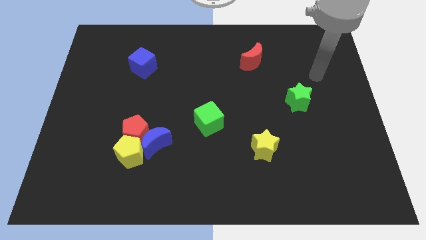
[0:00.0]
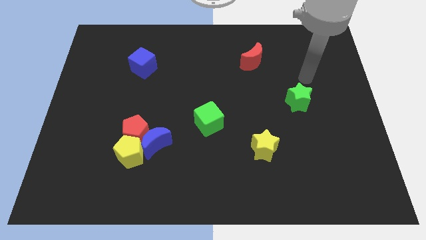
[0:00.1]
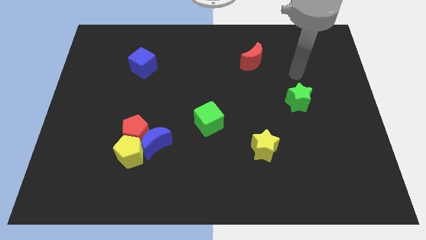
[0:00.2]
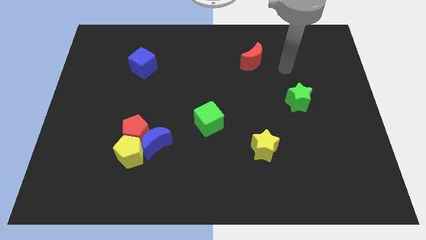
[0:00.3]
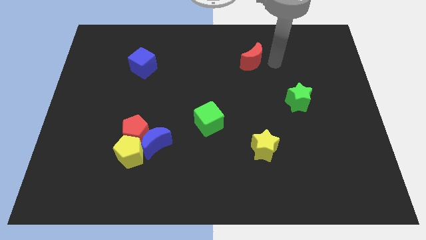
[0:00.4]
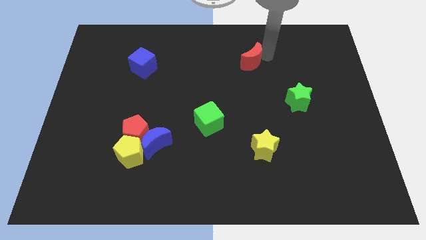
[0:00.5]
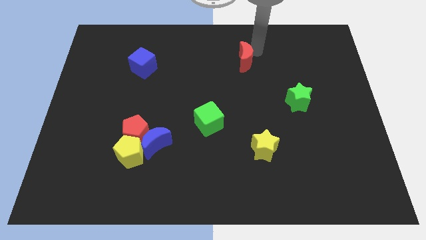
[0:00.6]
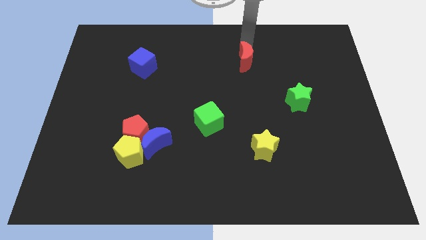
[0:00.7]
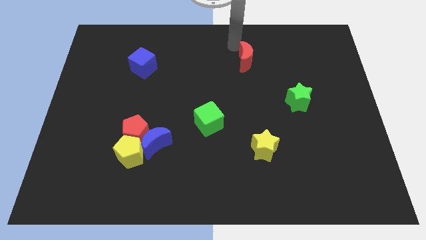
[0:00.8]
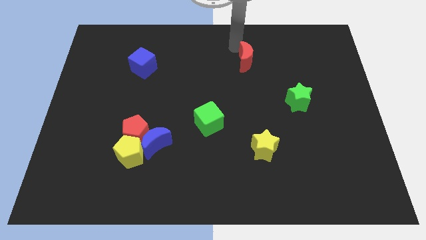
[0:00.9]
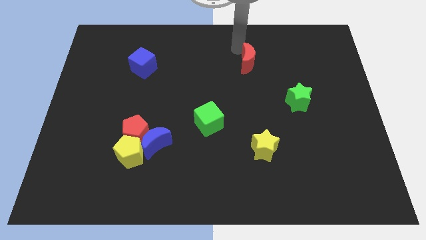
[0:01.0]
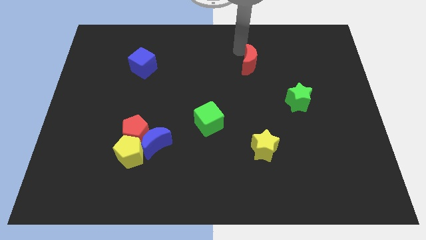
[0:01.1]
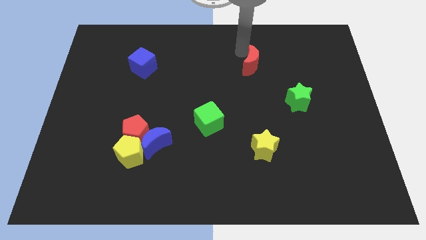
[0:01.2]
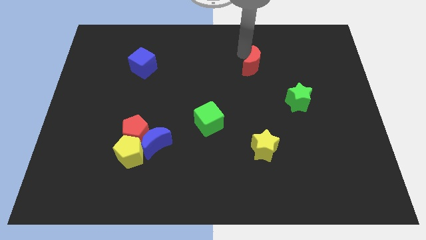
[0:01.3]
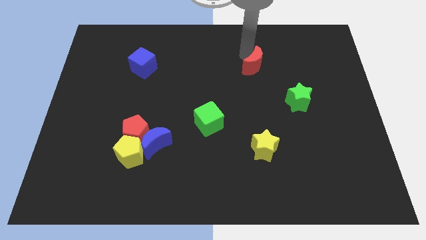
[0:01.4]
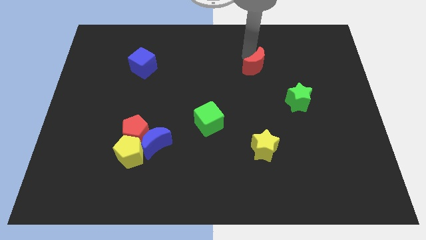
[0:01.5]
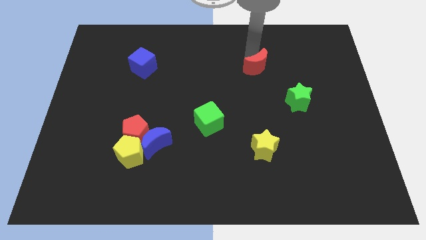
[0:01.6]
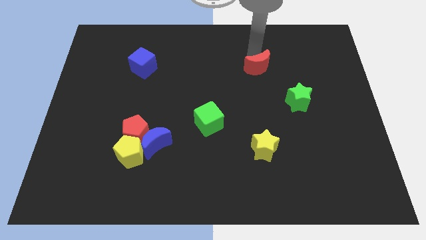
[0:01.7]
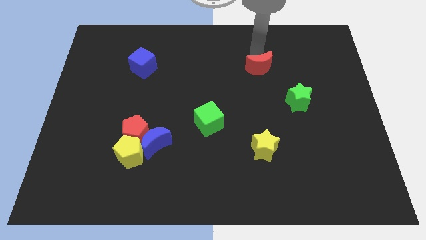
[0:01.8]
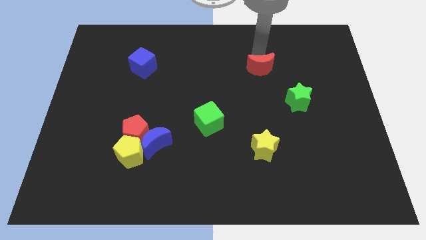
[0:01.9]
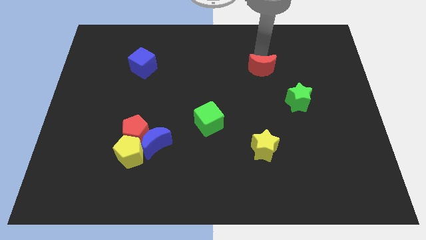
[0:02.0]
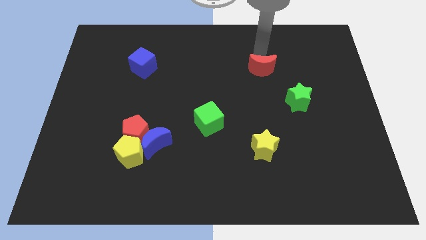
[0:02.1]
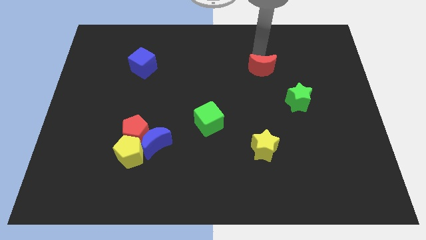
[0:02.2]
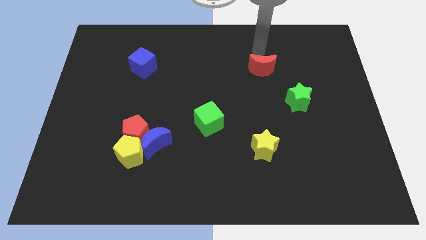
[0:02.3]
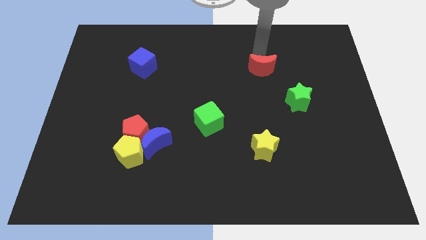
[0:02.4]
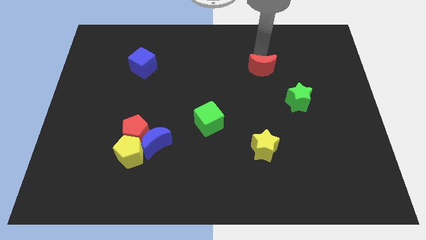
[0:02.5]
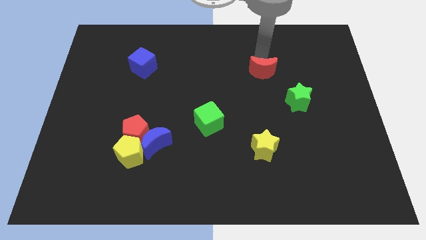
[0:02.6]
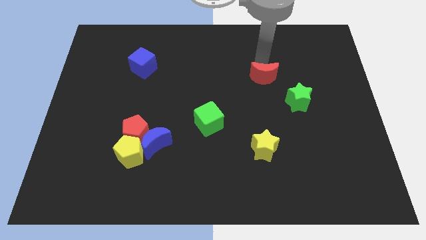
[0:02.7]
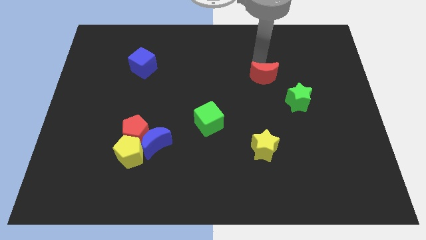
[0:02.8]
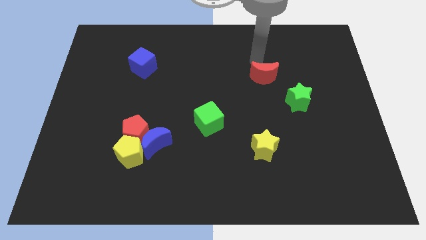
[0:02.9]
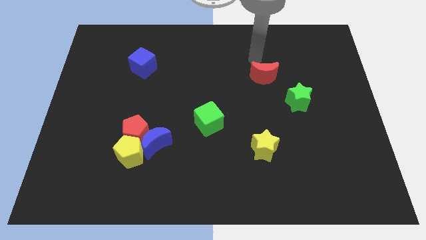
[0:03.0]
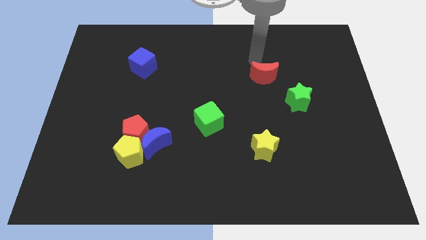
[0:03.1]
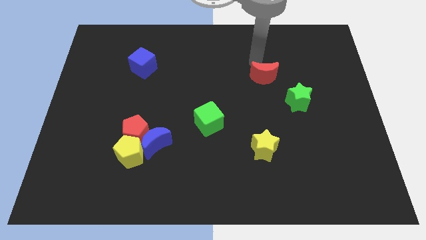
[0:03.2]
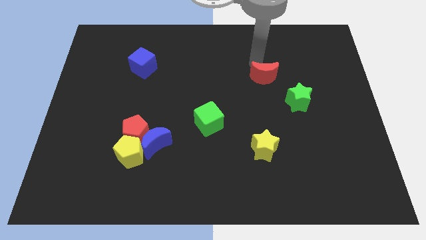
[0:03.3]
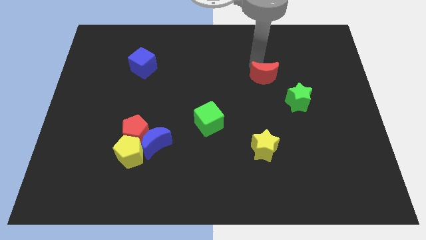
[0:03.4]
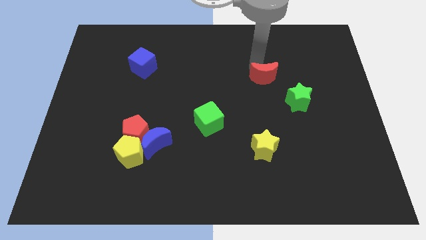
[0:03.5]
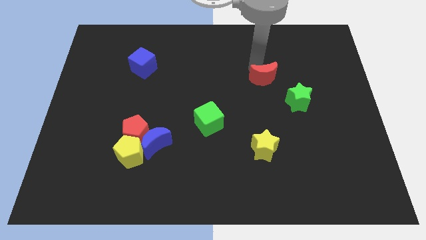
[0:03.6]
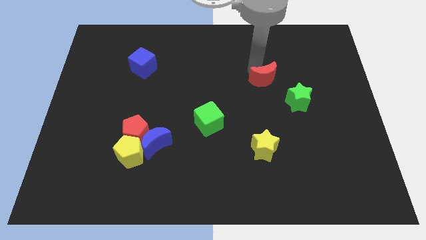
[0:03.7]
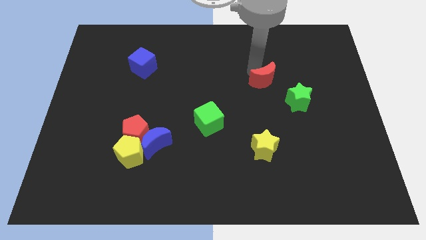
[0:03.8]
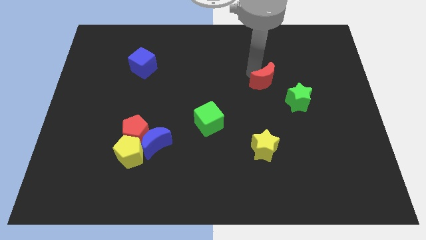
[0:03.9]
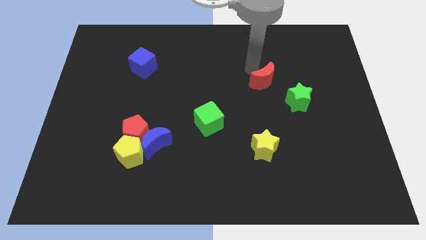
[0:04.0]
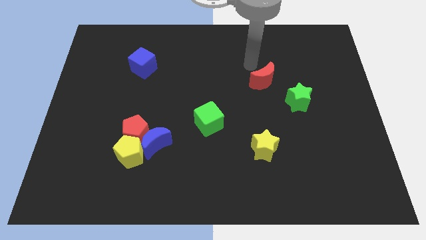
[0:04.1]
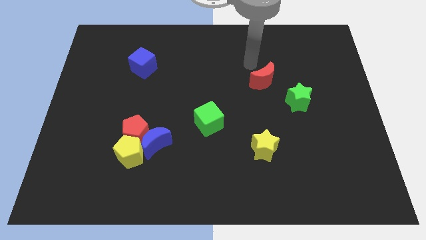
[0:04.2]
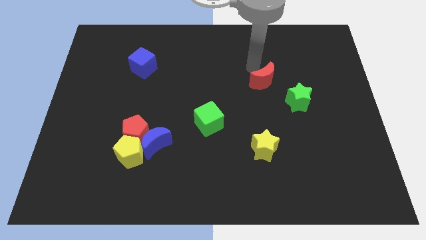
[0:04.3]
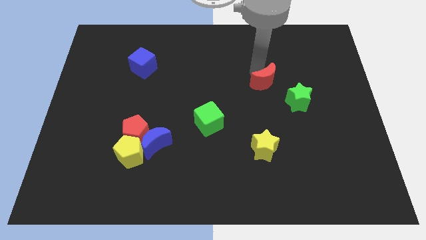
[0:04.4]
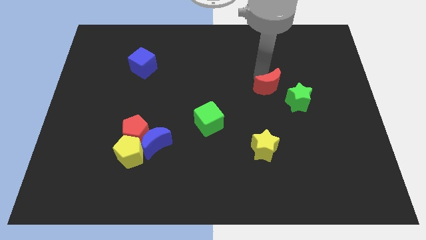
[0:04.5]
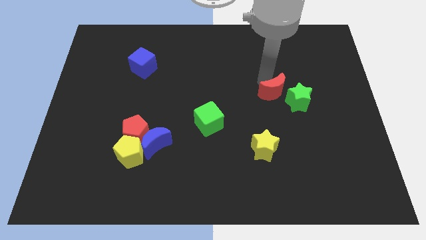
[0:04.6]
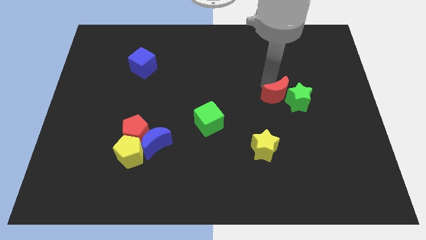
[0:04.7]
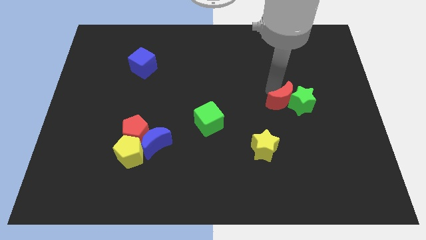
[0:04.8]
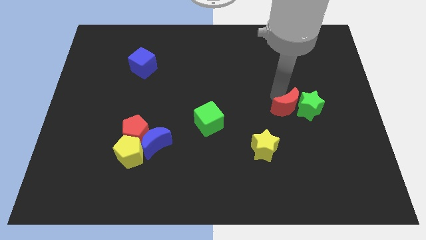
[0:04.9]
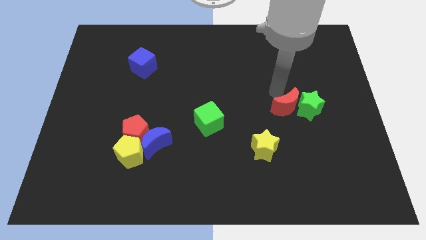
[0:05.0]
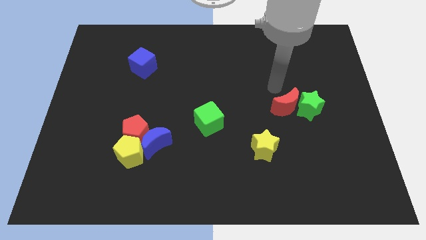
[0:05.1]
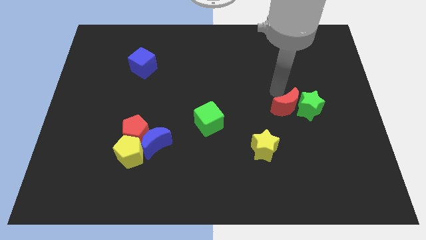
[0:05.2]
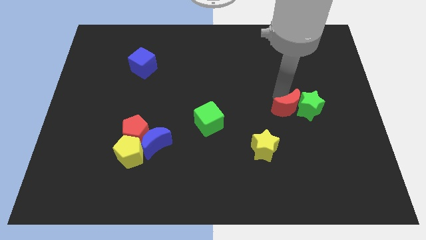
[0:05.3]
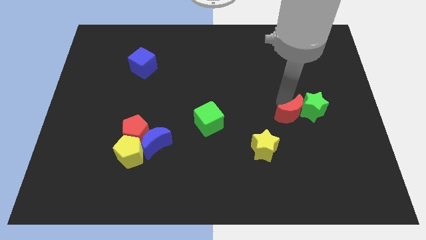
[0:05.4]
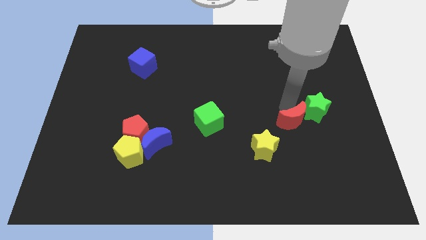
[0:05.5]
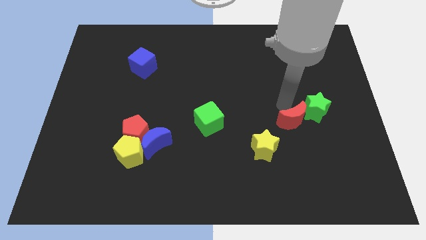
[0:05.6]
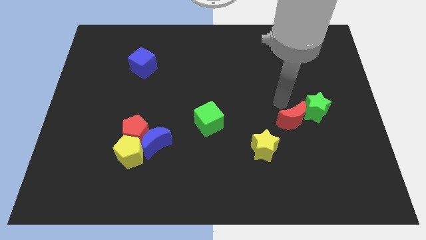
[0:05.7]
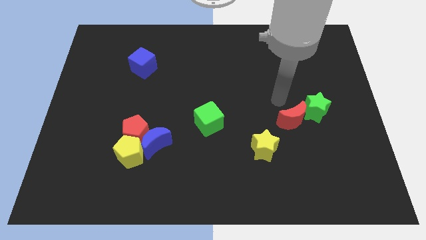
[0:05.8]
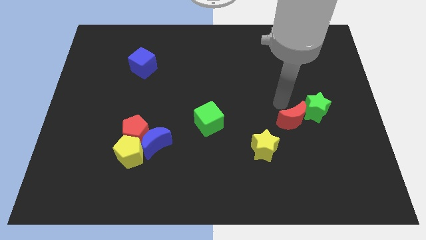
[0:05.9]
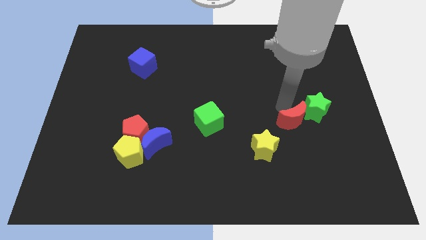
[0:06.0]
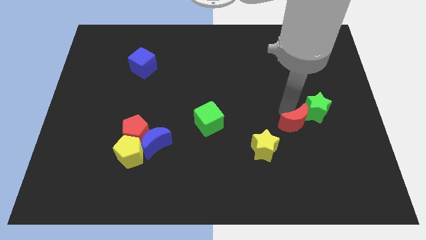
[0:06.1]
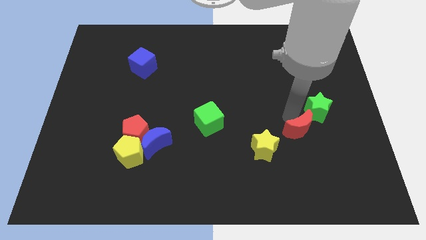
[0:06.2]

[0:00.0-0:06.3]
push the red moon to the right of the yellow star

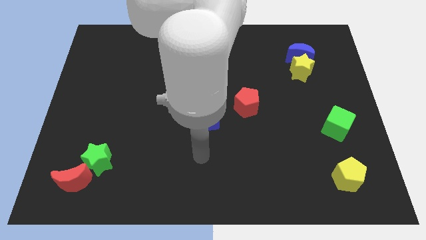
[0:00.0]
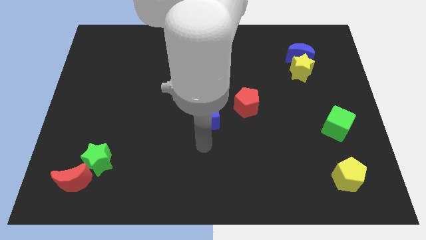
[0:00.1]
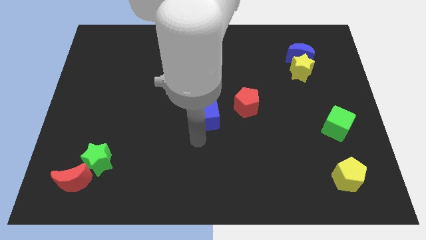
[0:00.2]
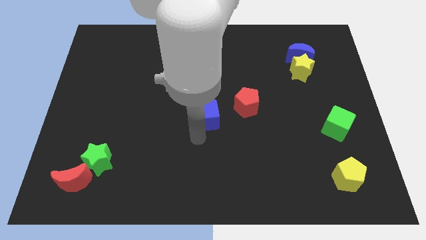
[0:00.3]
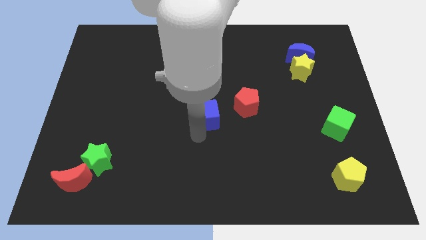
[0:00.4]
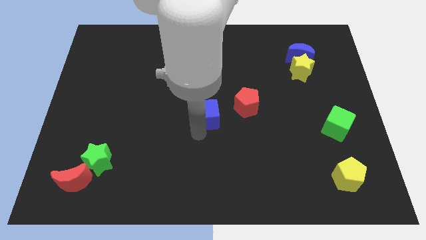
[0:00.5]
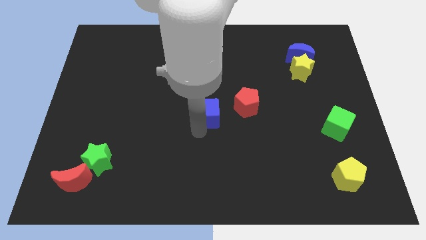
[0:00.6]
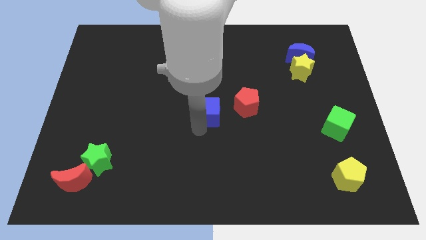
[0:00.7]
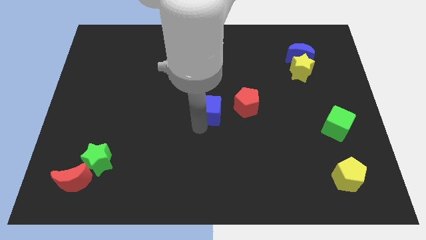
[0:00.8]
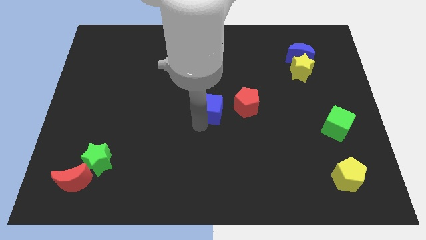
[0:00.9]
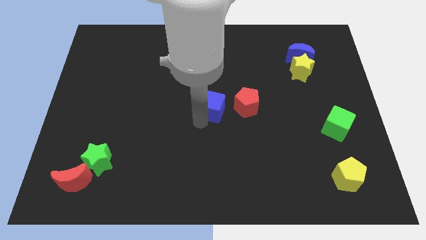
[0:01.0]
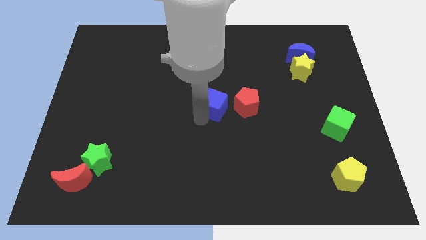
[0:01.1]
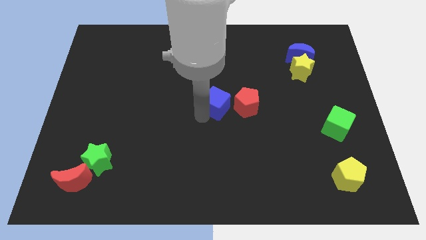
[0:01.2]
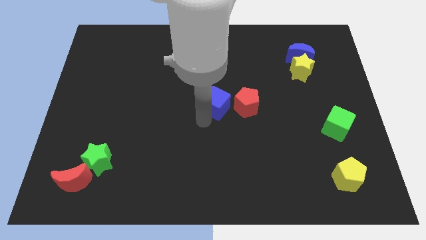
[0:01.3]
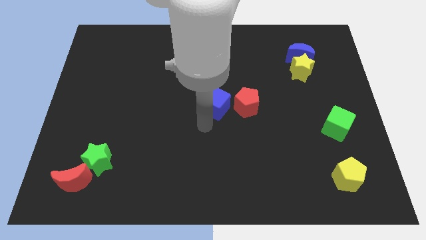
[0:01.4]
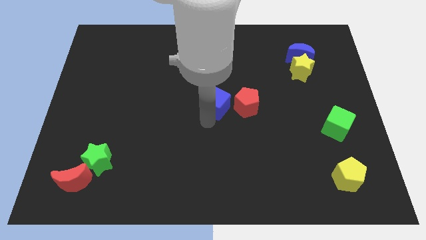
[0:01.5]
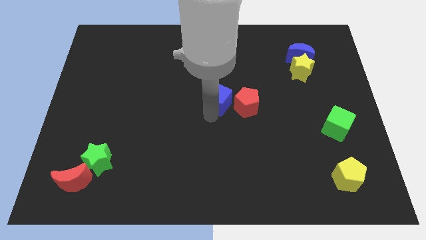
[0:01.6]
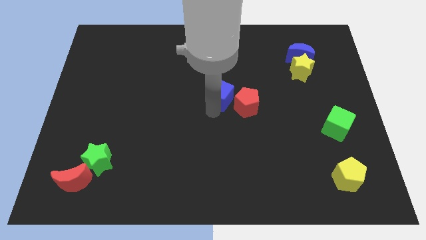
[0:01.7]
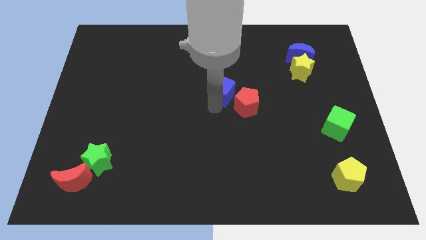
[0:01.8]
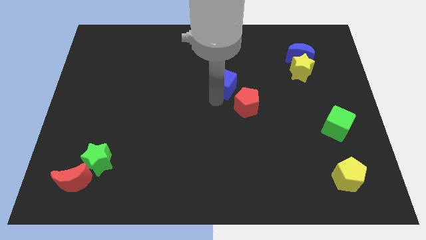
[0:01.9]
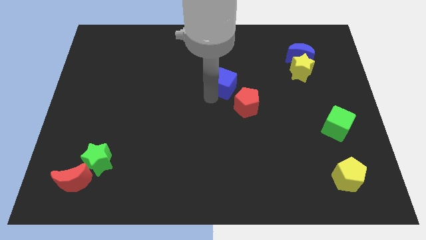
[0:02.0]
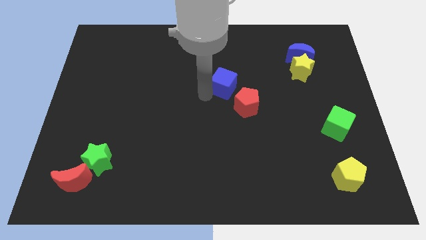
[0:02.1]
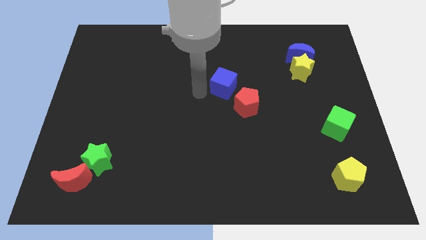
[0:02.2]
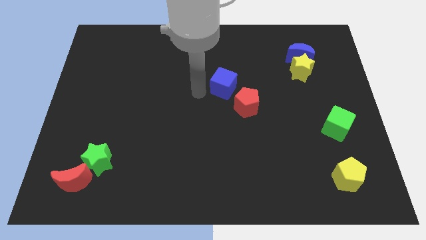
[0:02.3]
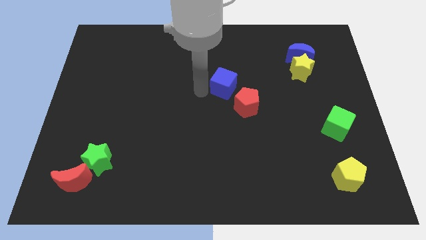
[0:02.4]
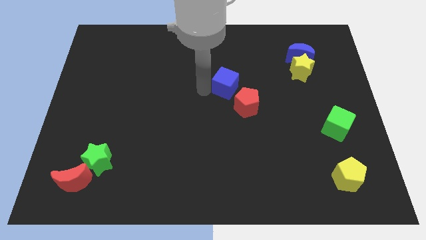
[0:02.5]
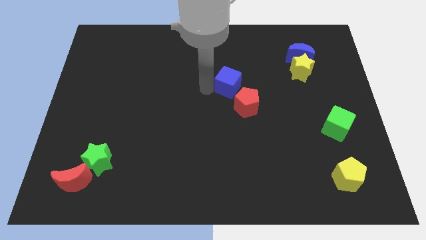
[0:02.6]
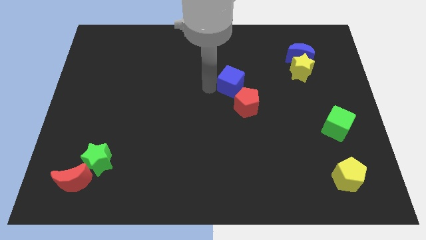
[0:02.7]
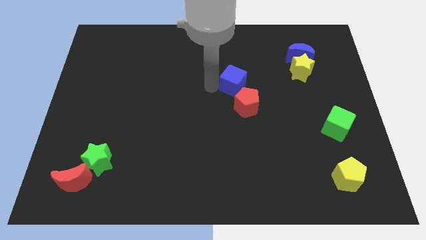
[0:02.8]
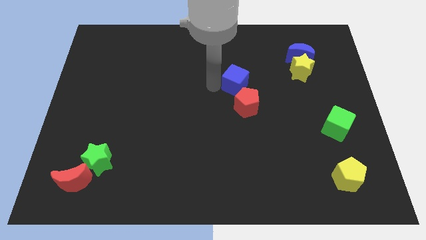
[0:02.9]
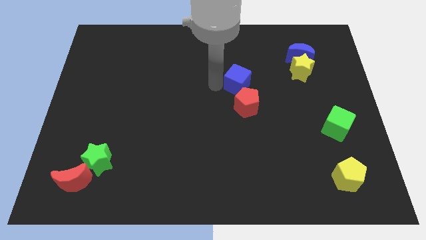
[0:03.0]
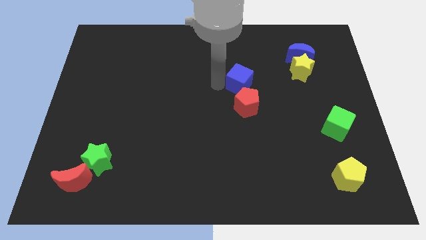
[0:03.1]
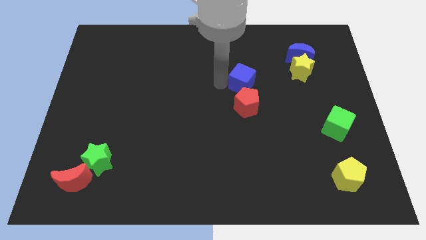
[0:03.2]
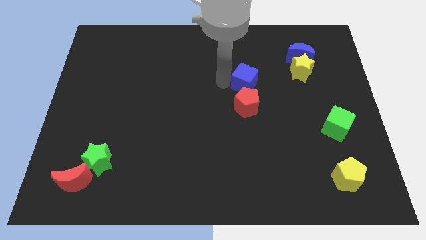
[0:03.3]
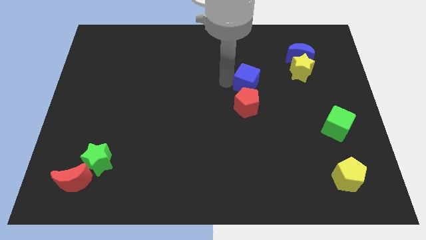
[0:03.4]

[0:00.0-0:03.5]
push the blue cube just left of the yellow star
